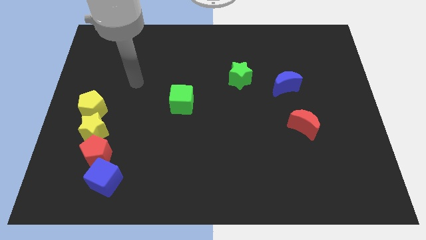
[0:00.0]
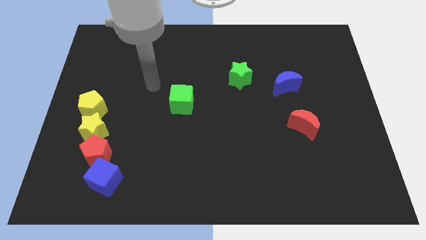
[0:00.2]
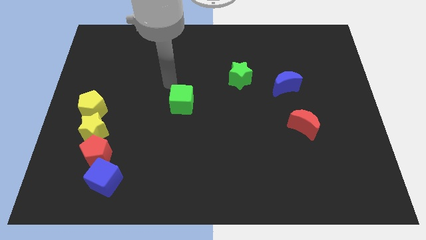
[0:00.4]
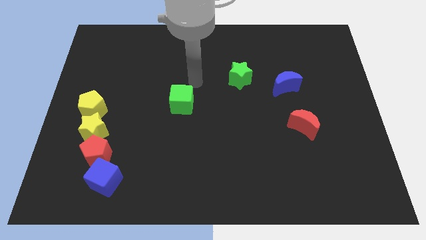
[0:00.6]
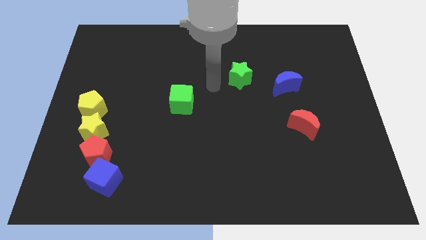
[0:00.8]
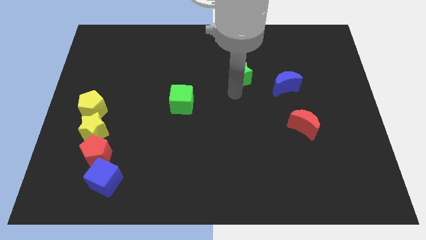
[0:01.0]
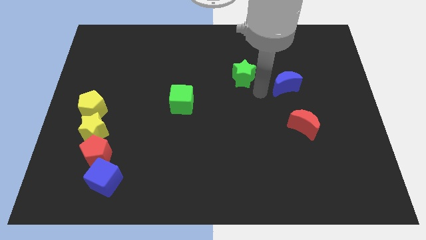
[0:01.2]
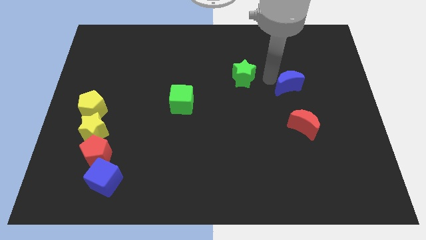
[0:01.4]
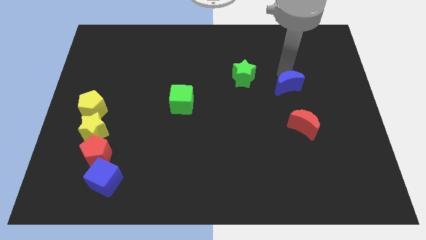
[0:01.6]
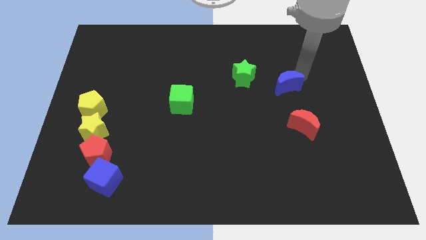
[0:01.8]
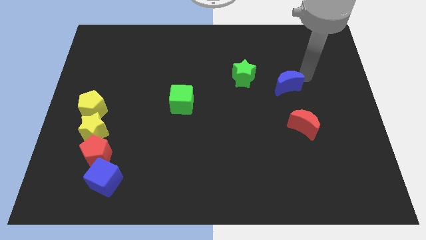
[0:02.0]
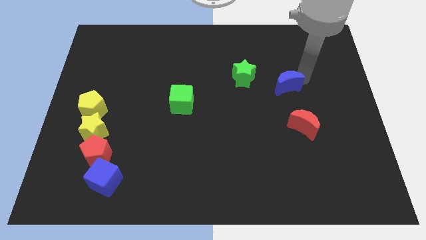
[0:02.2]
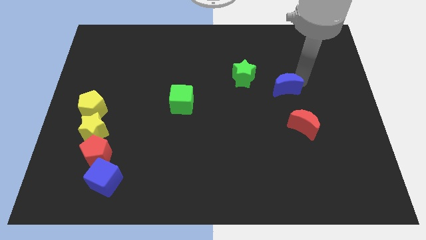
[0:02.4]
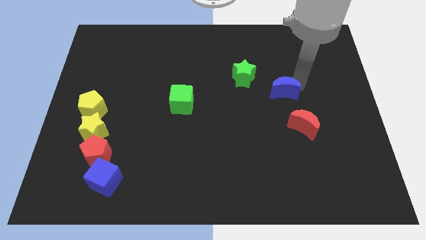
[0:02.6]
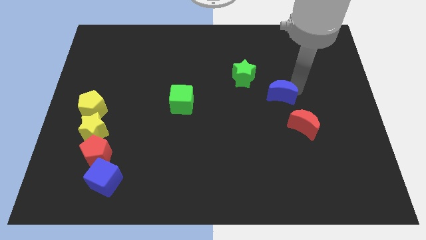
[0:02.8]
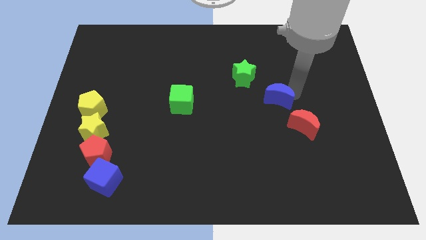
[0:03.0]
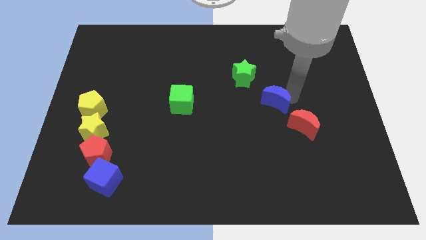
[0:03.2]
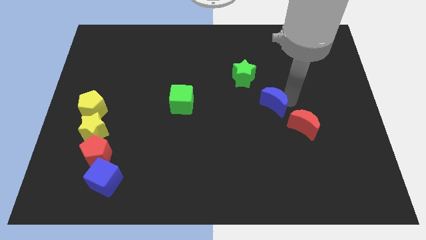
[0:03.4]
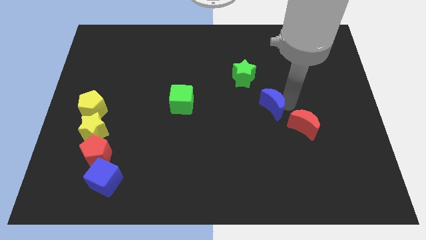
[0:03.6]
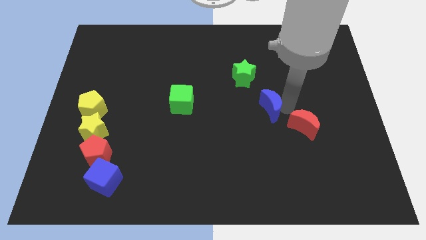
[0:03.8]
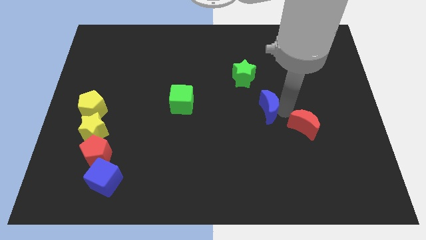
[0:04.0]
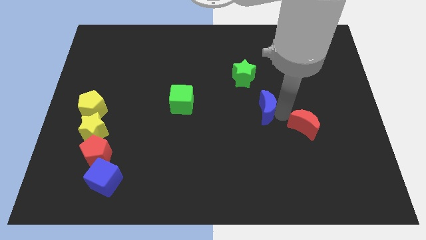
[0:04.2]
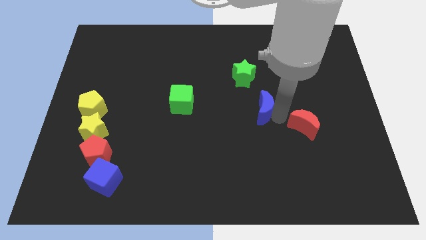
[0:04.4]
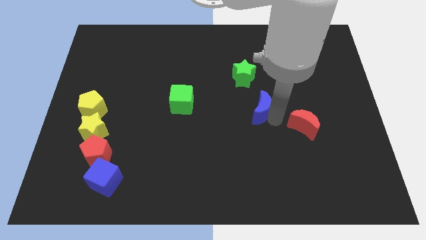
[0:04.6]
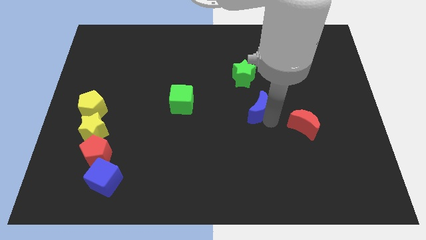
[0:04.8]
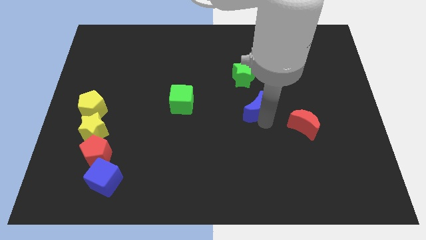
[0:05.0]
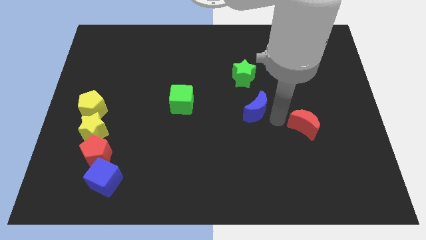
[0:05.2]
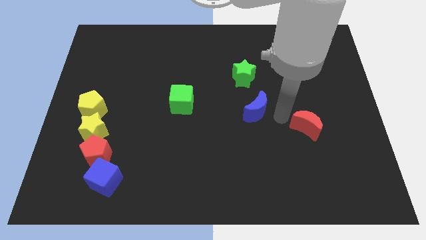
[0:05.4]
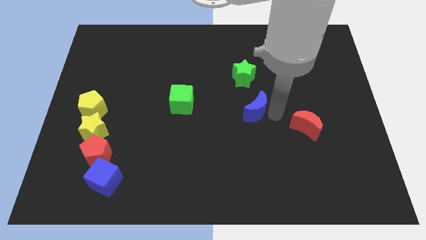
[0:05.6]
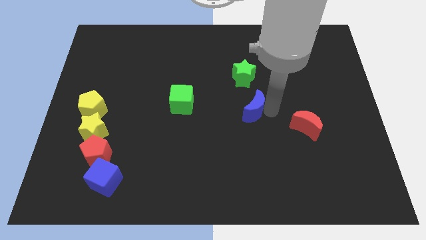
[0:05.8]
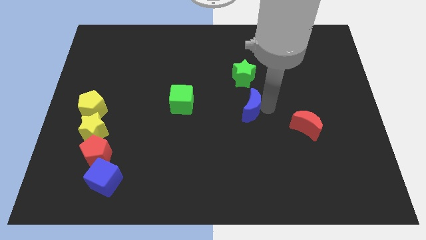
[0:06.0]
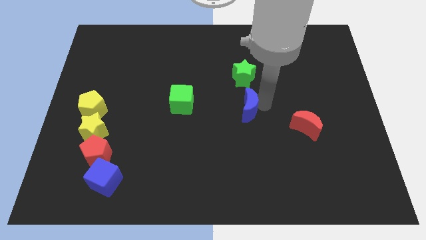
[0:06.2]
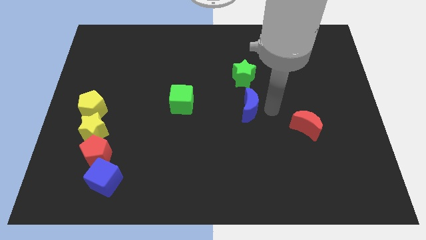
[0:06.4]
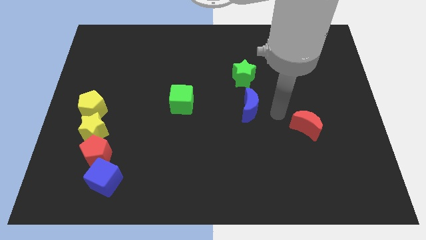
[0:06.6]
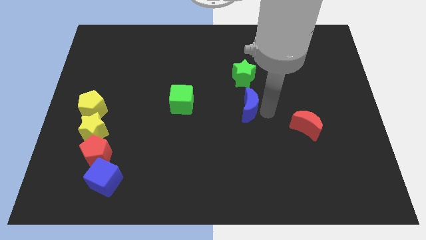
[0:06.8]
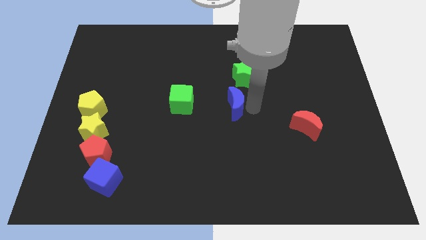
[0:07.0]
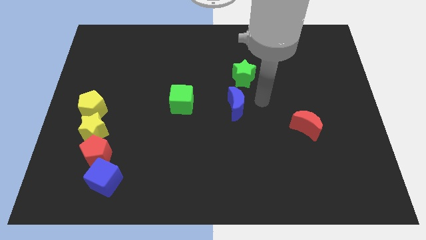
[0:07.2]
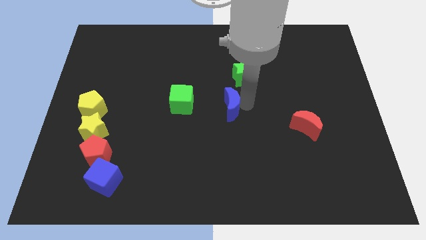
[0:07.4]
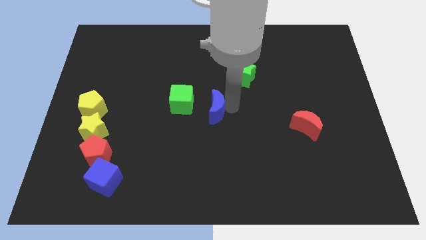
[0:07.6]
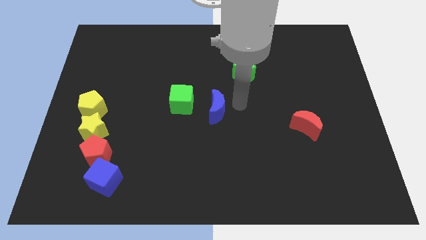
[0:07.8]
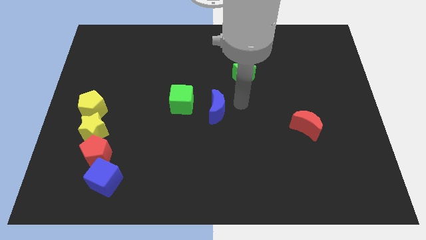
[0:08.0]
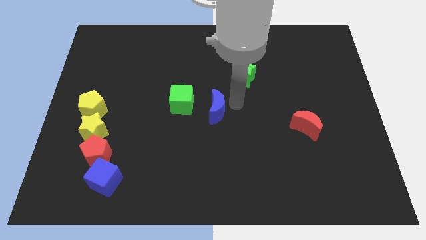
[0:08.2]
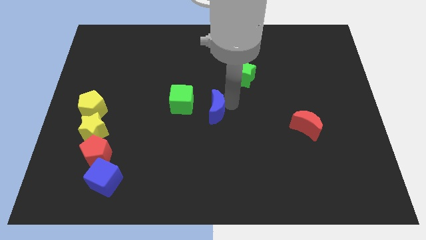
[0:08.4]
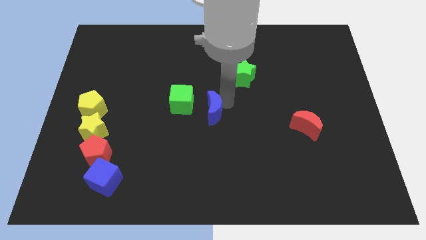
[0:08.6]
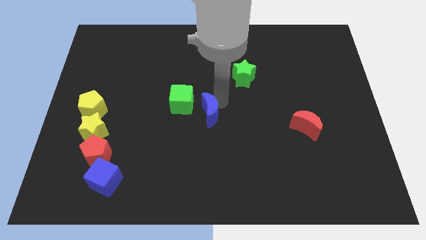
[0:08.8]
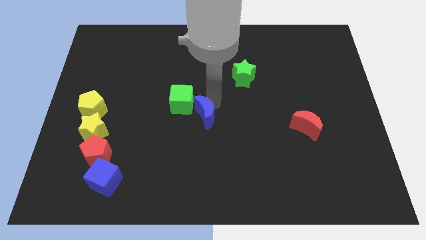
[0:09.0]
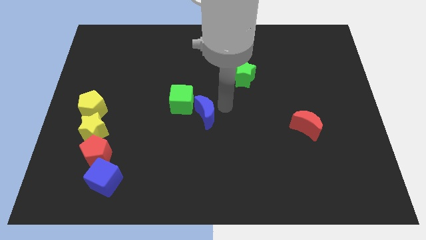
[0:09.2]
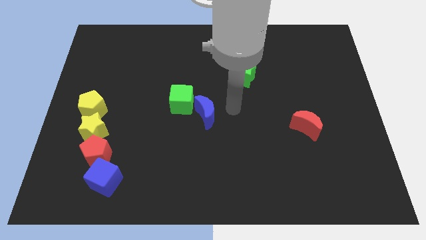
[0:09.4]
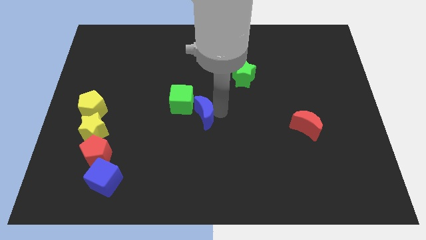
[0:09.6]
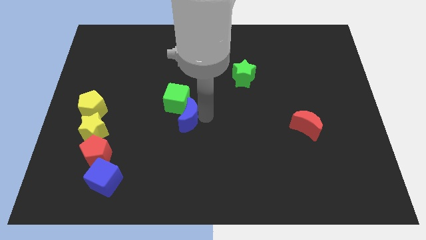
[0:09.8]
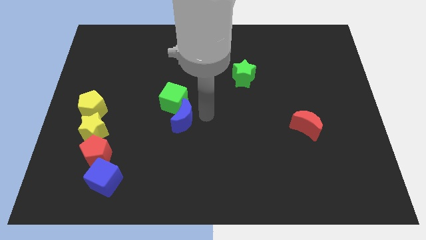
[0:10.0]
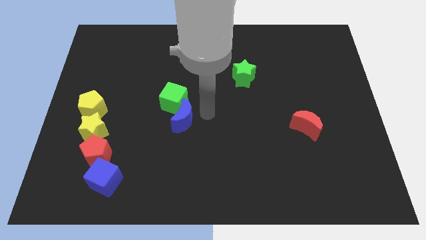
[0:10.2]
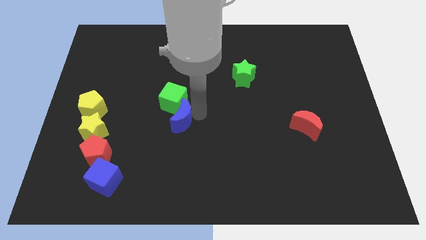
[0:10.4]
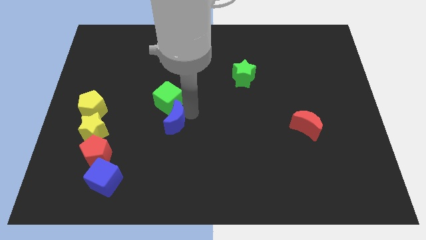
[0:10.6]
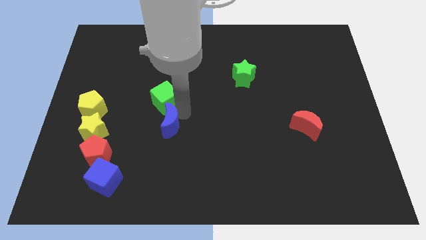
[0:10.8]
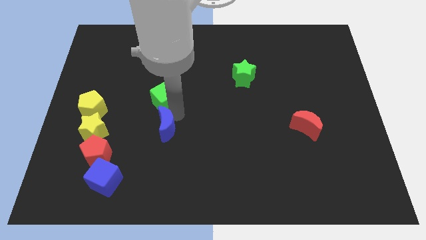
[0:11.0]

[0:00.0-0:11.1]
slide the blue moon right of the yellow star

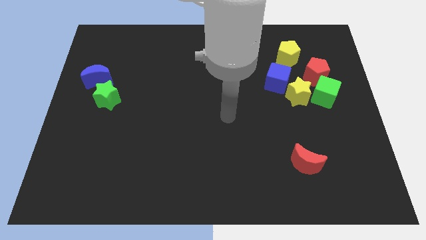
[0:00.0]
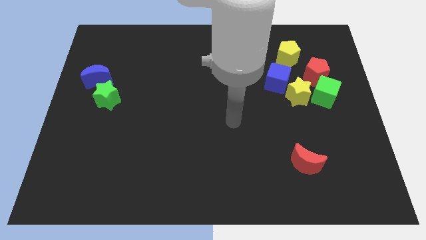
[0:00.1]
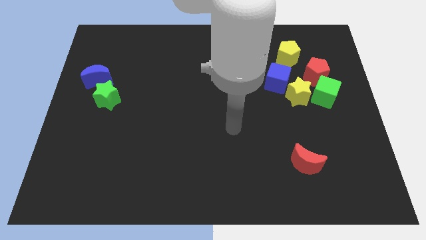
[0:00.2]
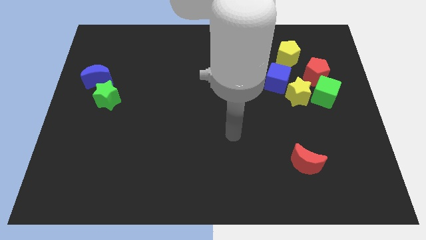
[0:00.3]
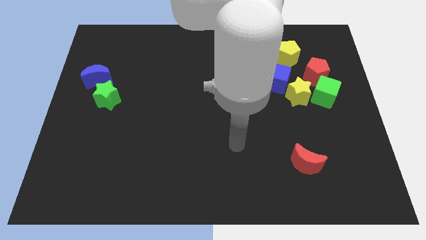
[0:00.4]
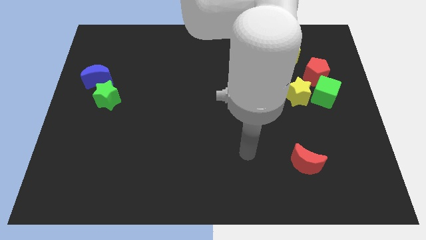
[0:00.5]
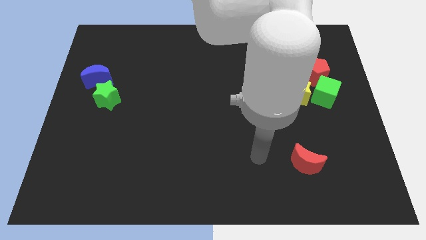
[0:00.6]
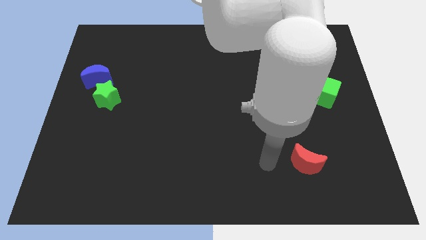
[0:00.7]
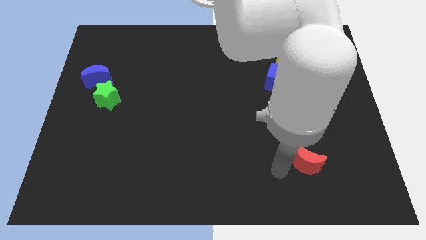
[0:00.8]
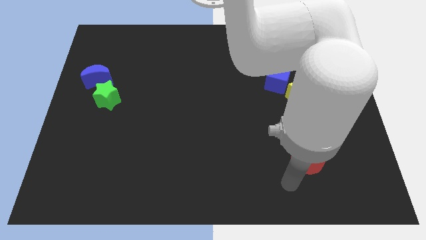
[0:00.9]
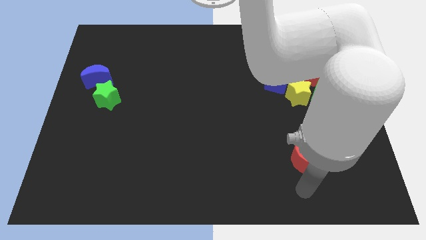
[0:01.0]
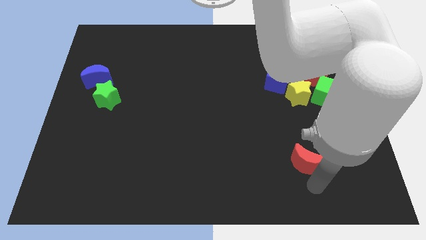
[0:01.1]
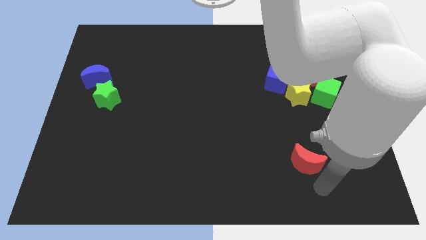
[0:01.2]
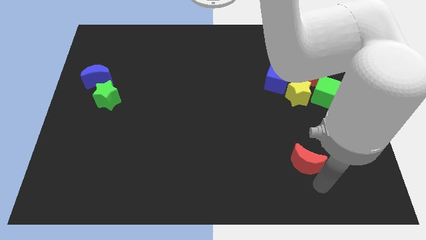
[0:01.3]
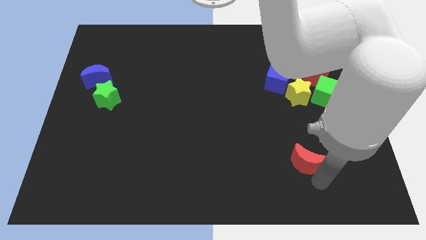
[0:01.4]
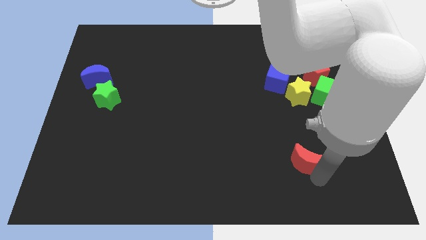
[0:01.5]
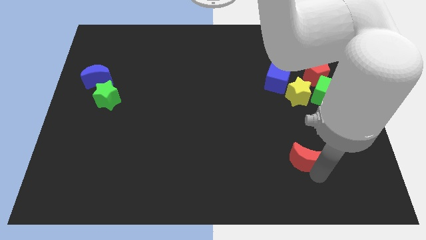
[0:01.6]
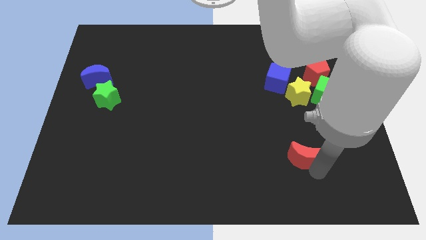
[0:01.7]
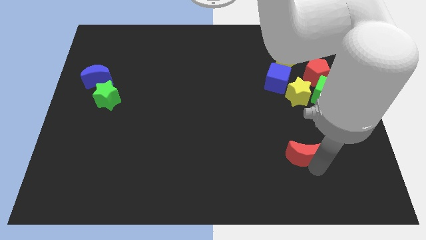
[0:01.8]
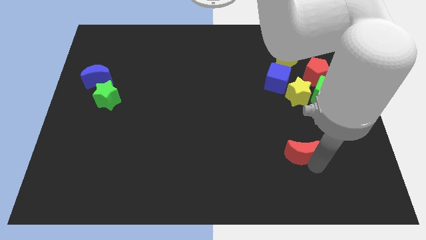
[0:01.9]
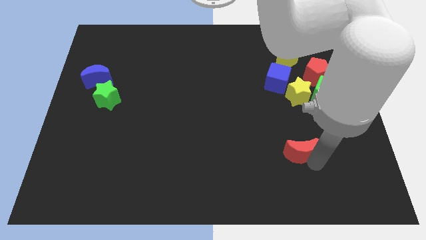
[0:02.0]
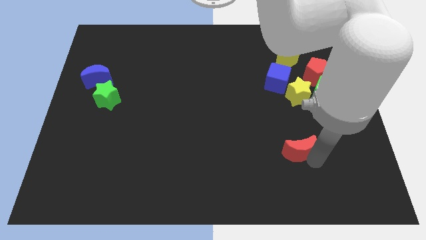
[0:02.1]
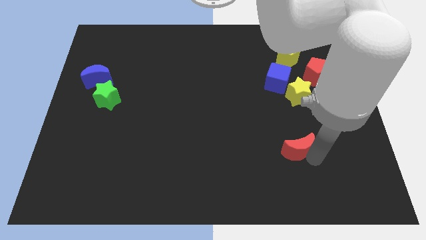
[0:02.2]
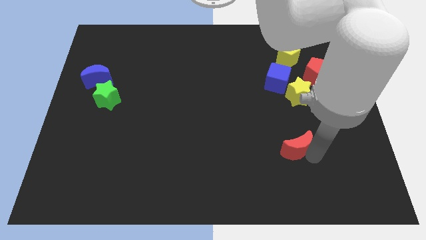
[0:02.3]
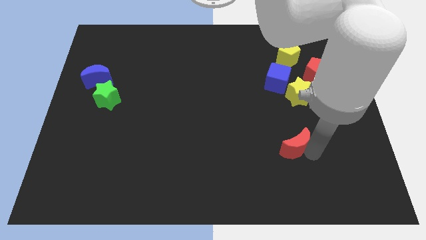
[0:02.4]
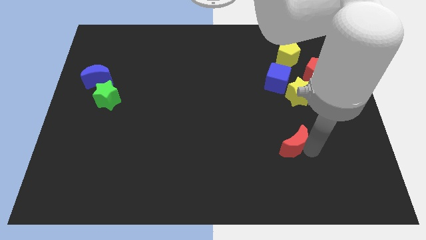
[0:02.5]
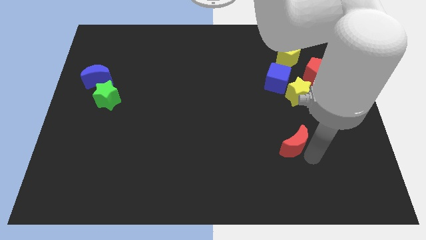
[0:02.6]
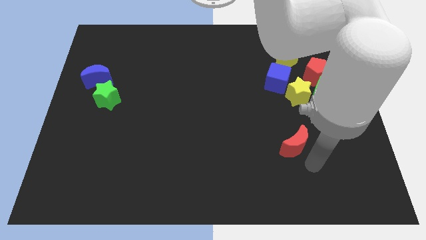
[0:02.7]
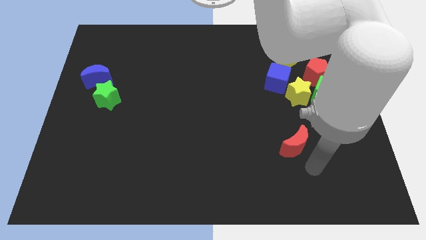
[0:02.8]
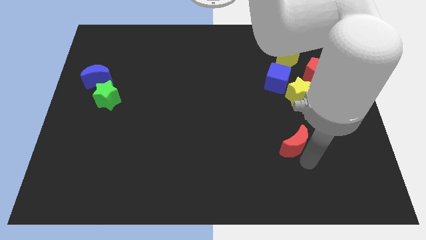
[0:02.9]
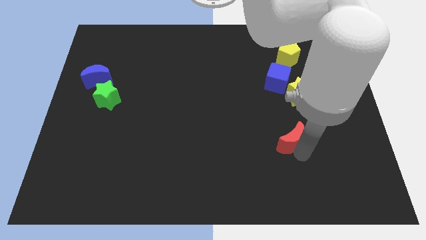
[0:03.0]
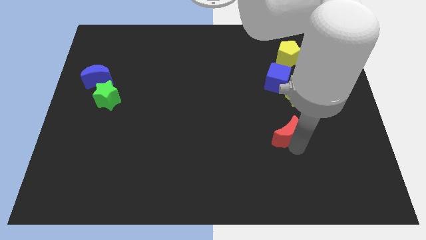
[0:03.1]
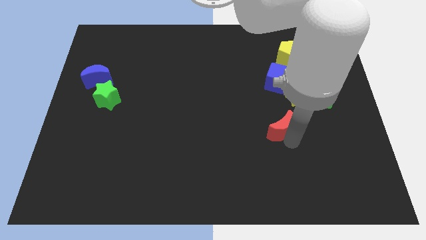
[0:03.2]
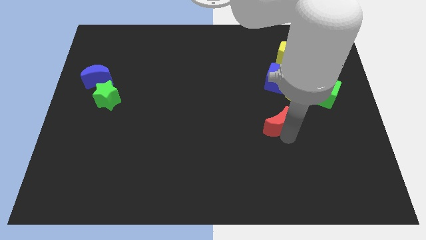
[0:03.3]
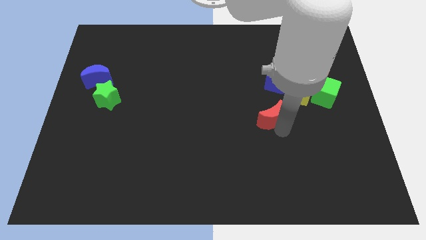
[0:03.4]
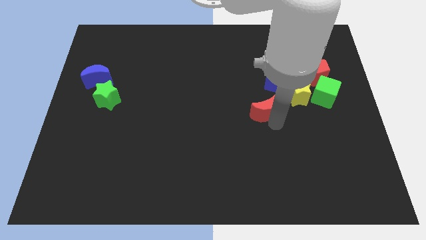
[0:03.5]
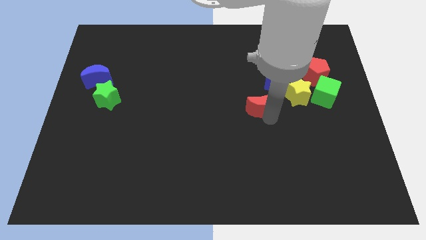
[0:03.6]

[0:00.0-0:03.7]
move the red moon just left of the yellow star
